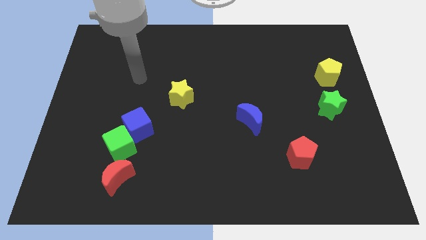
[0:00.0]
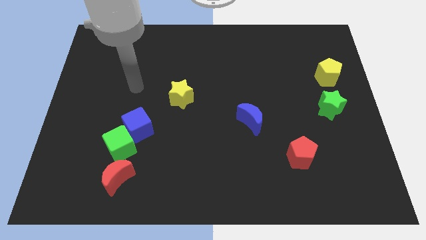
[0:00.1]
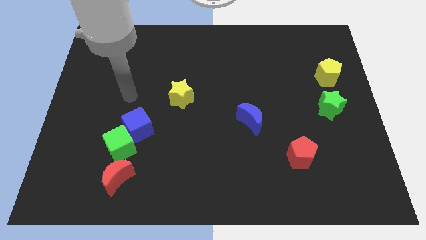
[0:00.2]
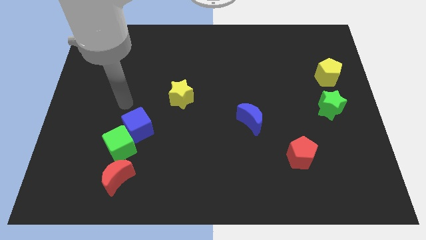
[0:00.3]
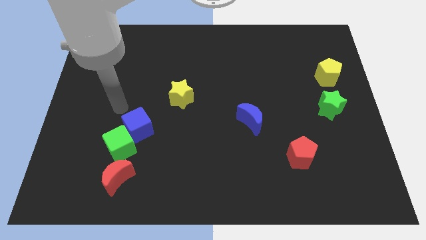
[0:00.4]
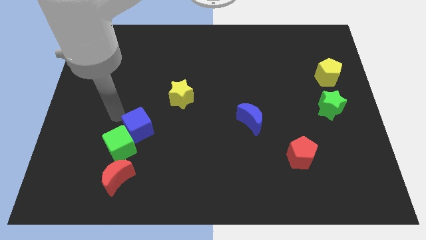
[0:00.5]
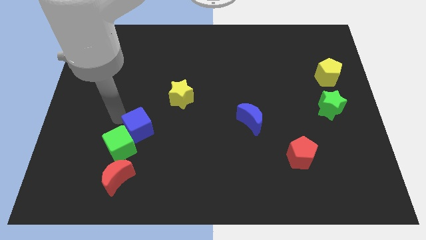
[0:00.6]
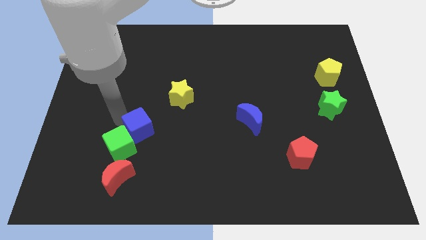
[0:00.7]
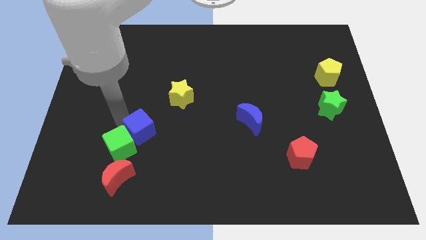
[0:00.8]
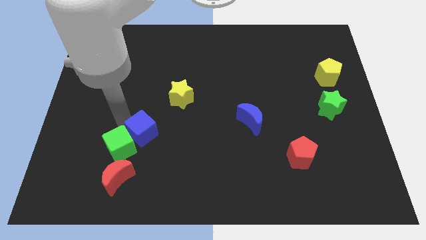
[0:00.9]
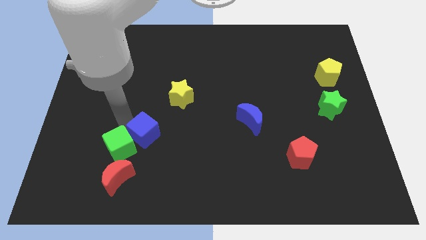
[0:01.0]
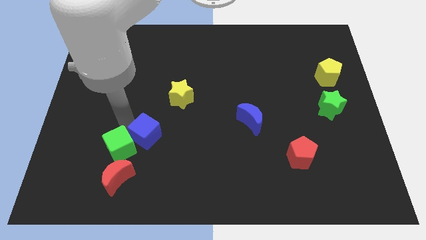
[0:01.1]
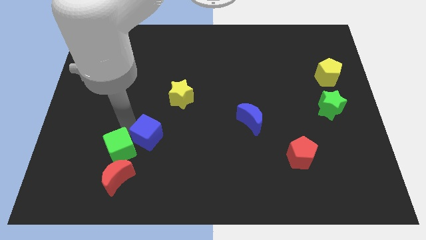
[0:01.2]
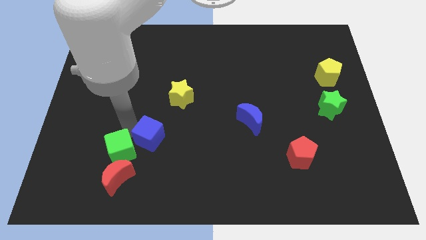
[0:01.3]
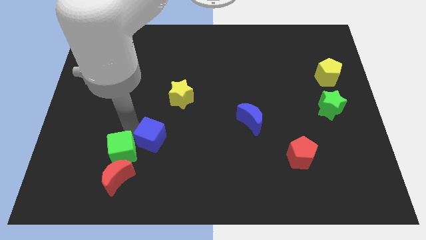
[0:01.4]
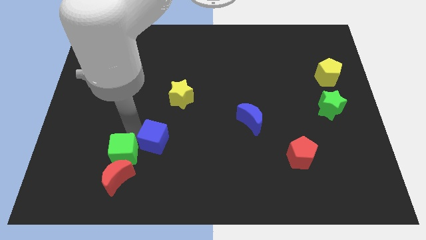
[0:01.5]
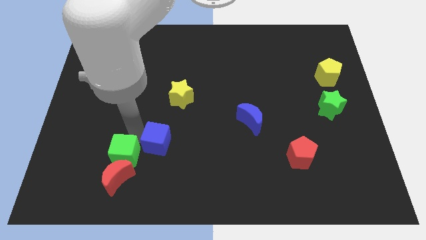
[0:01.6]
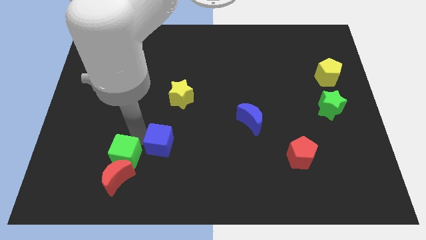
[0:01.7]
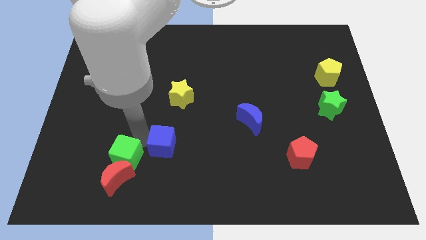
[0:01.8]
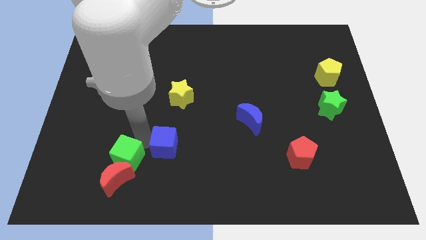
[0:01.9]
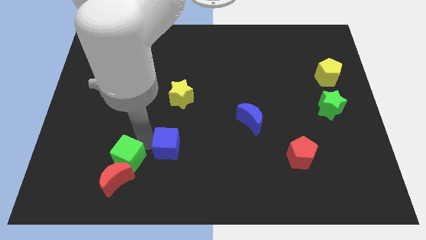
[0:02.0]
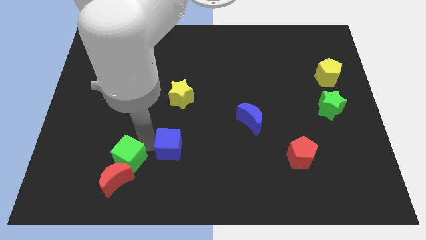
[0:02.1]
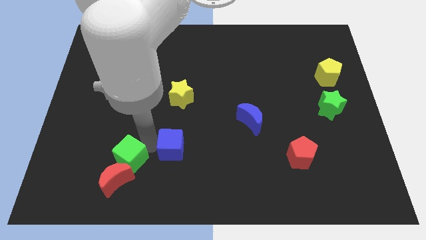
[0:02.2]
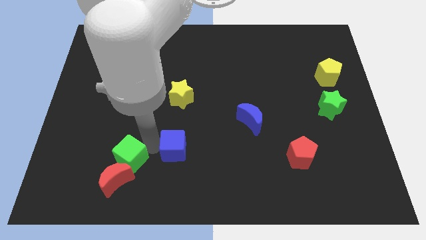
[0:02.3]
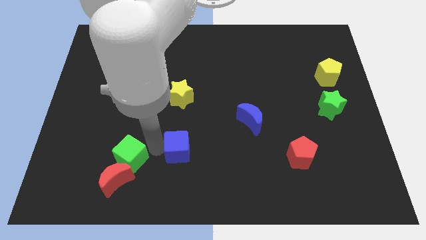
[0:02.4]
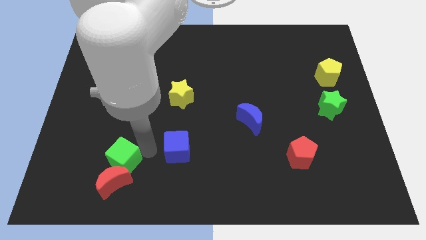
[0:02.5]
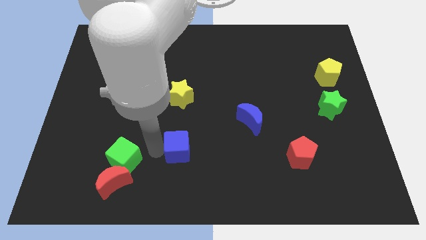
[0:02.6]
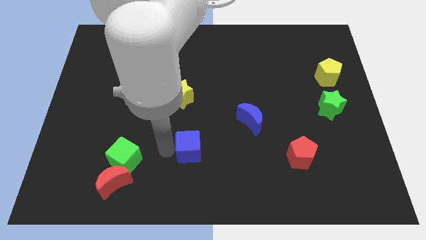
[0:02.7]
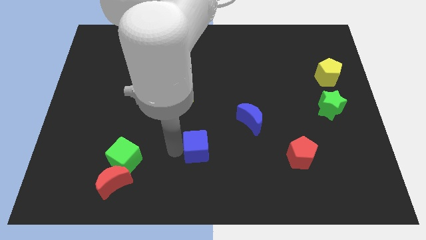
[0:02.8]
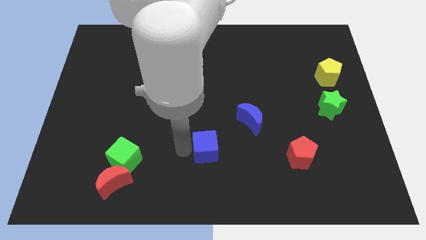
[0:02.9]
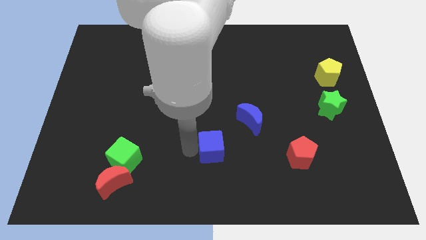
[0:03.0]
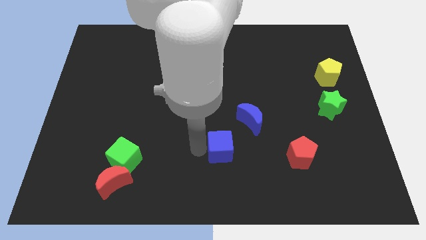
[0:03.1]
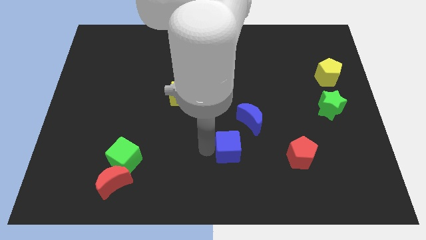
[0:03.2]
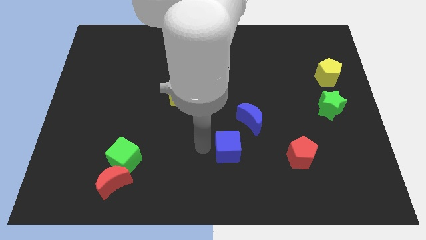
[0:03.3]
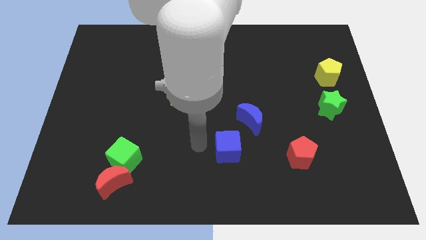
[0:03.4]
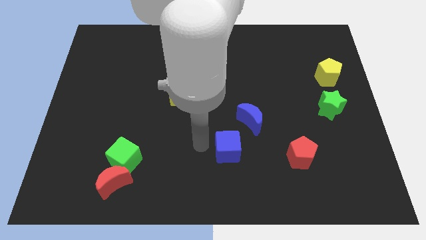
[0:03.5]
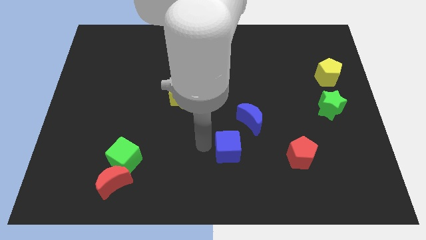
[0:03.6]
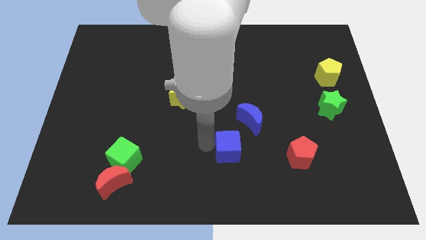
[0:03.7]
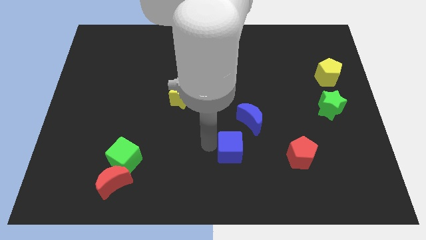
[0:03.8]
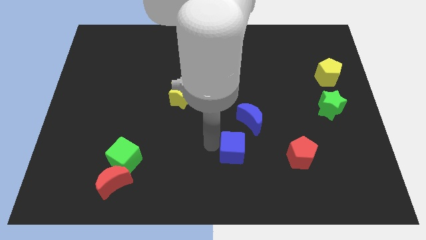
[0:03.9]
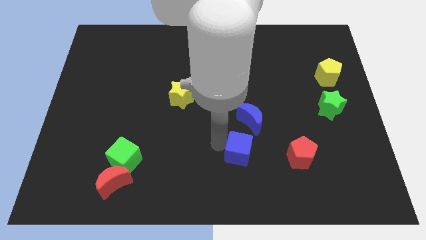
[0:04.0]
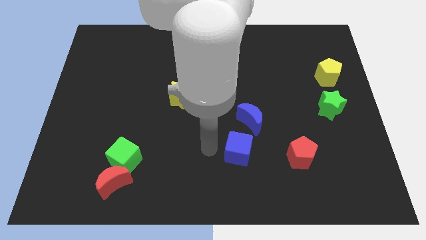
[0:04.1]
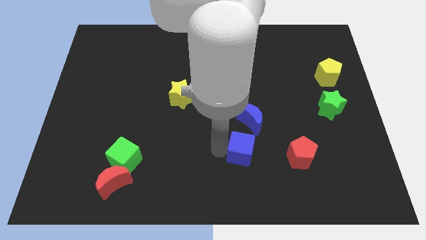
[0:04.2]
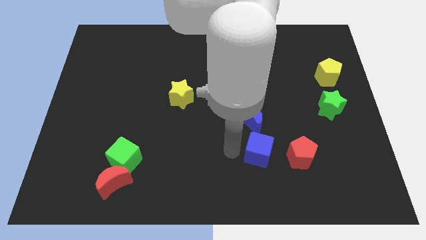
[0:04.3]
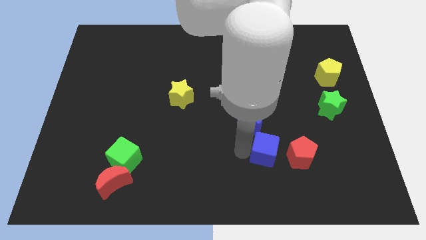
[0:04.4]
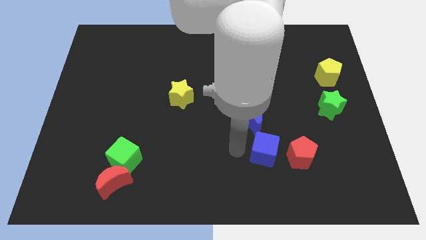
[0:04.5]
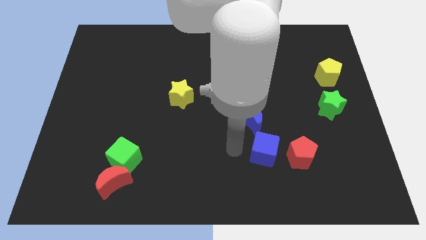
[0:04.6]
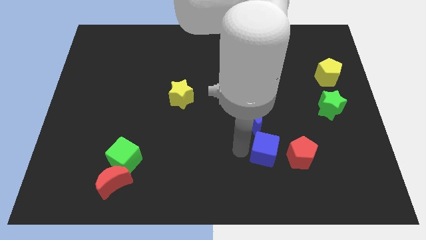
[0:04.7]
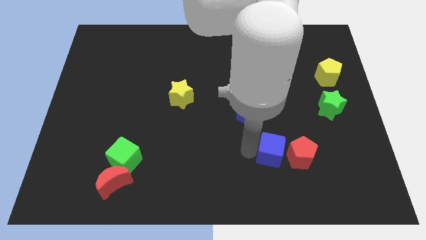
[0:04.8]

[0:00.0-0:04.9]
move the blue cube close to the red pentagon

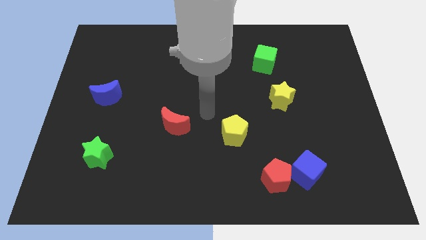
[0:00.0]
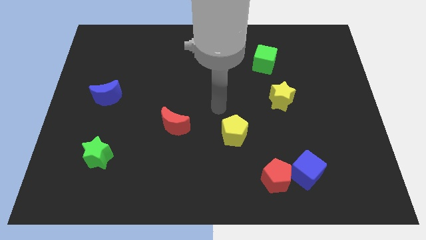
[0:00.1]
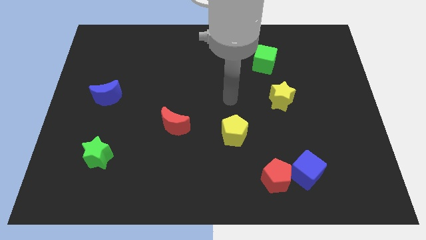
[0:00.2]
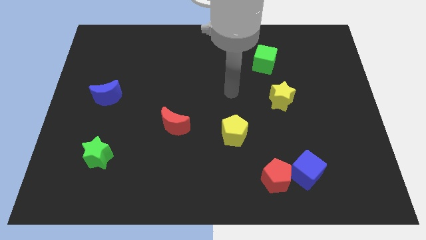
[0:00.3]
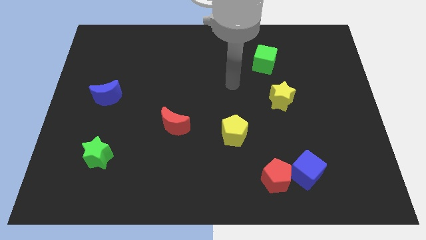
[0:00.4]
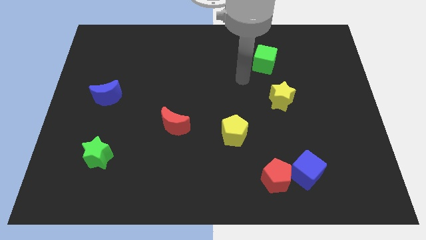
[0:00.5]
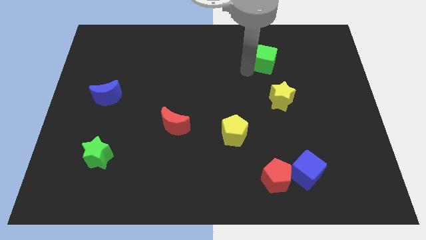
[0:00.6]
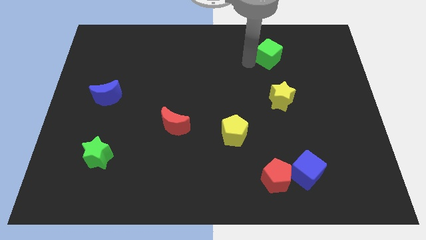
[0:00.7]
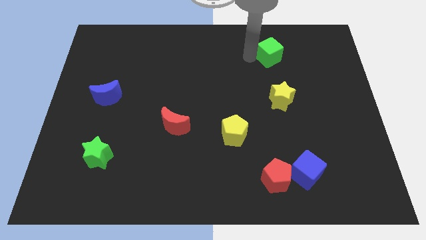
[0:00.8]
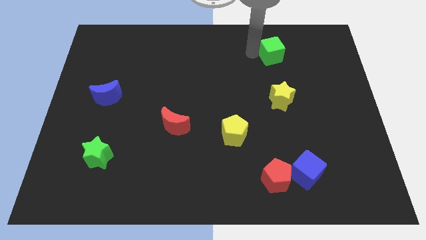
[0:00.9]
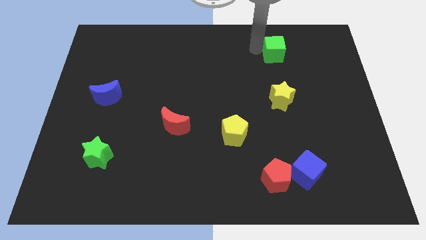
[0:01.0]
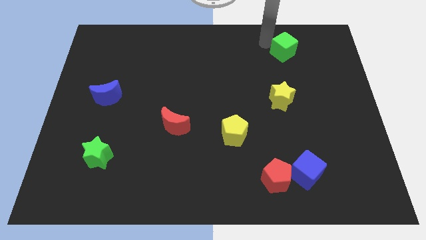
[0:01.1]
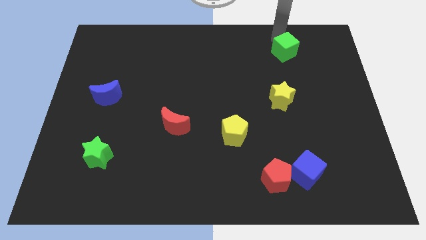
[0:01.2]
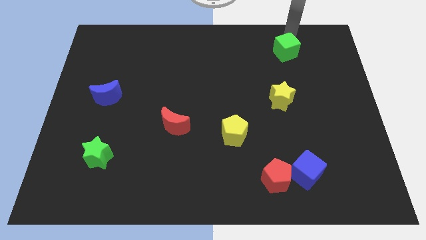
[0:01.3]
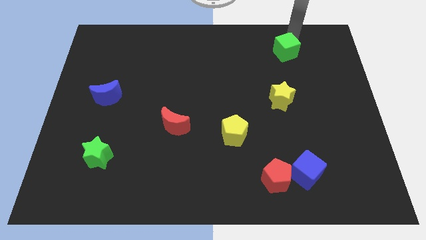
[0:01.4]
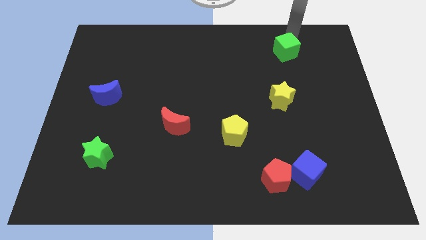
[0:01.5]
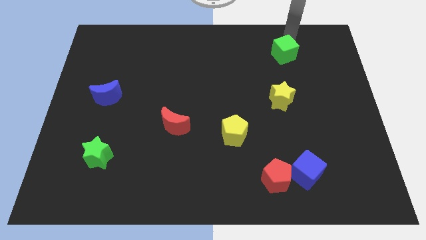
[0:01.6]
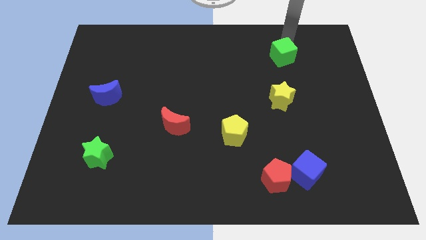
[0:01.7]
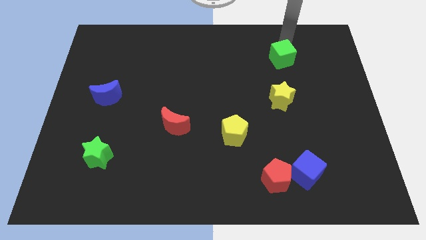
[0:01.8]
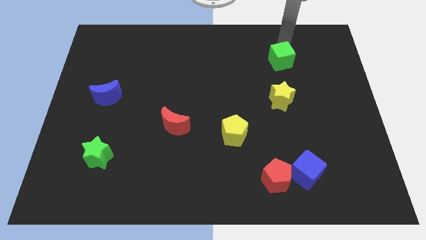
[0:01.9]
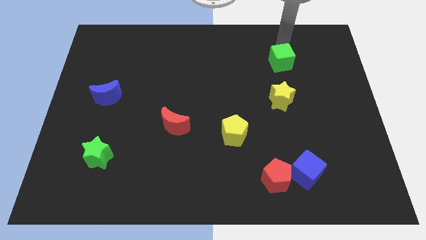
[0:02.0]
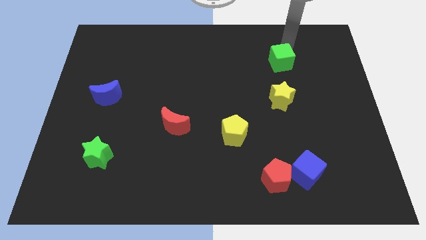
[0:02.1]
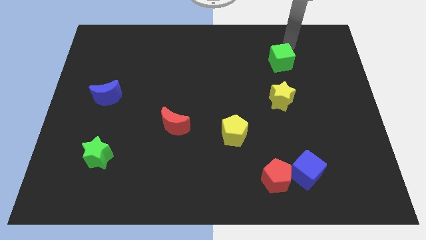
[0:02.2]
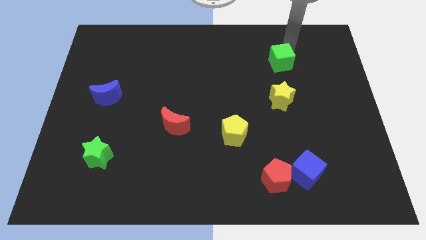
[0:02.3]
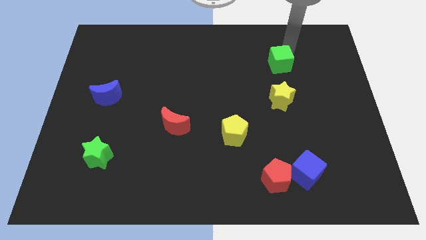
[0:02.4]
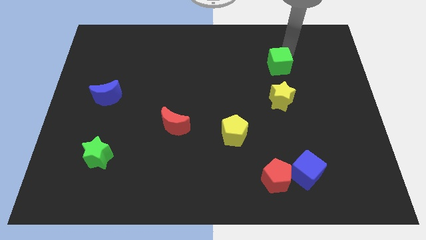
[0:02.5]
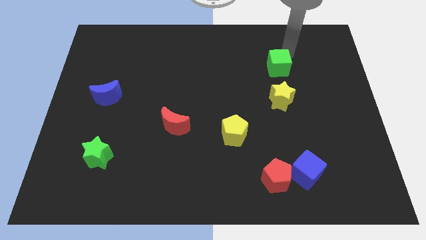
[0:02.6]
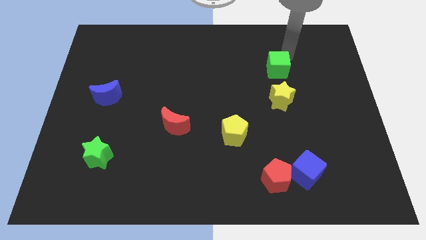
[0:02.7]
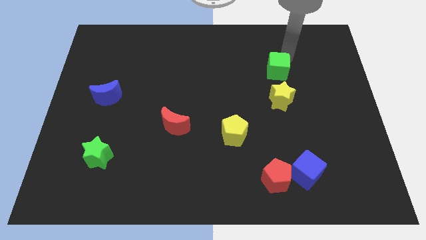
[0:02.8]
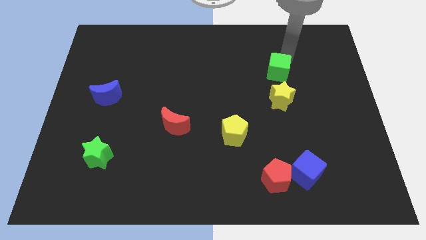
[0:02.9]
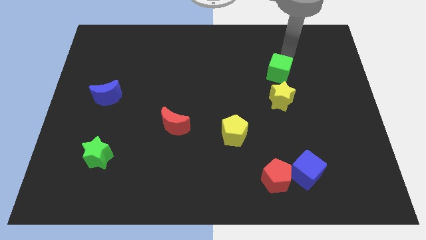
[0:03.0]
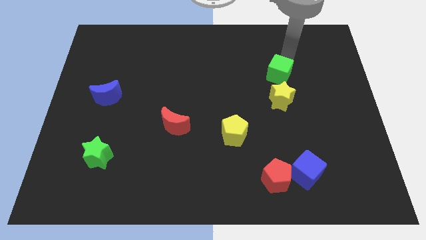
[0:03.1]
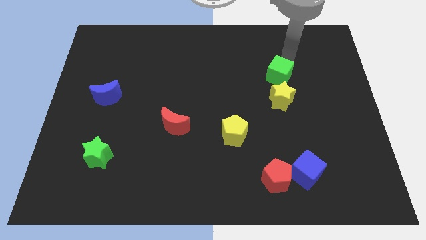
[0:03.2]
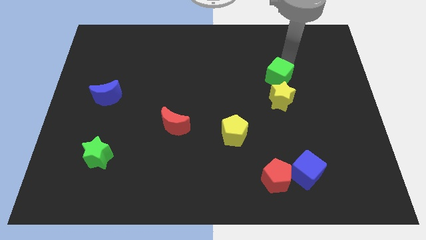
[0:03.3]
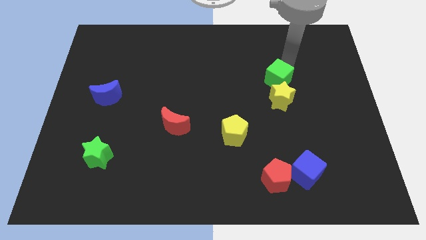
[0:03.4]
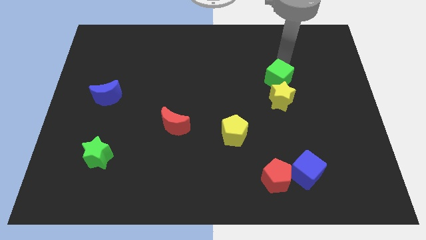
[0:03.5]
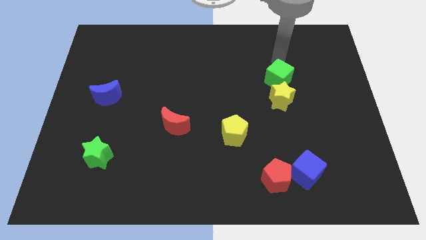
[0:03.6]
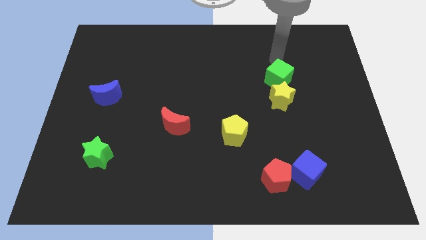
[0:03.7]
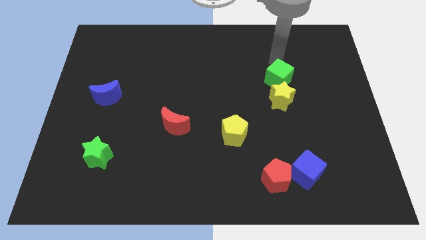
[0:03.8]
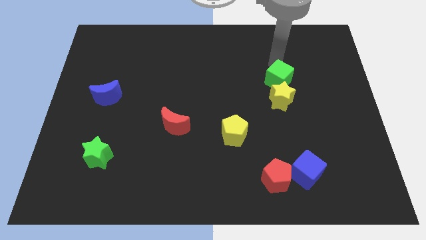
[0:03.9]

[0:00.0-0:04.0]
move the green cube to the yellow star
